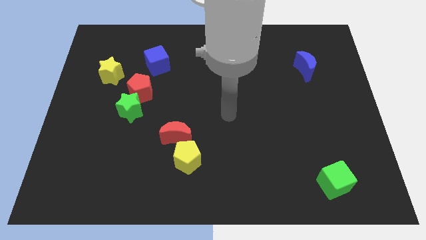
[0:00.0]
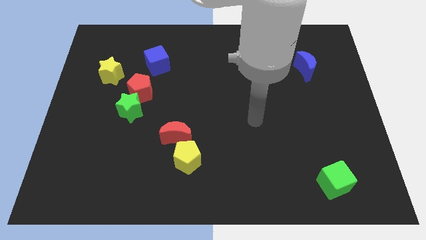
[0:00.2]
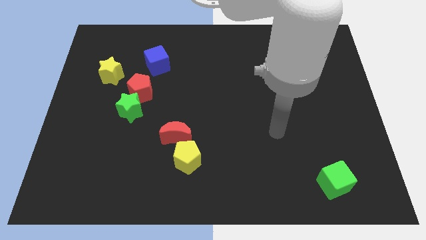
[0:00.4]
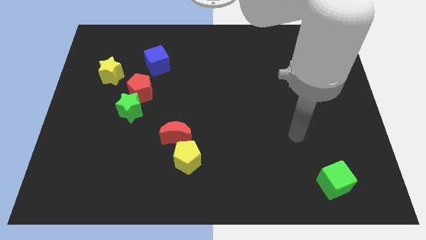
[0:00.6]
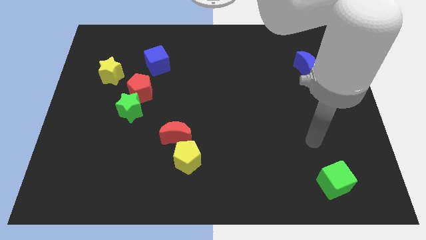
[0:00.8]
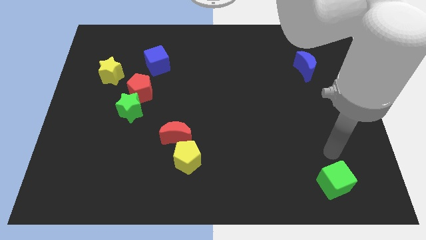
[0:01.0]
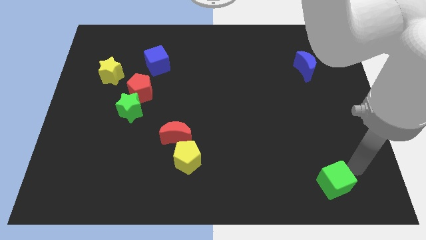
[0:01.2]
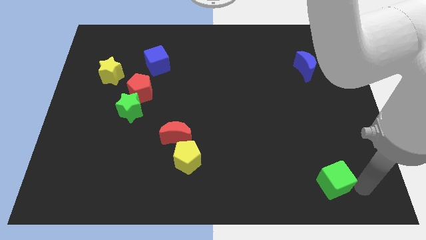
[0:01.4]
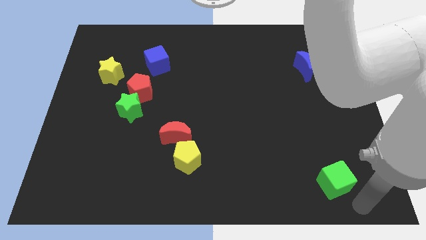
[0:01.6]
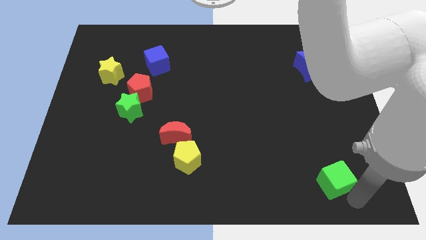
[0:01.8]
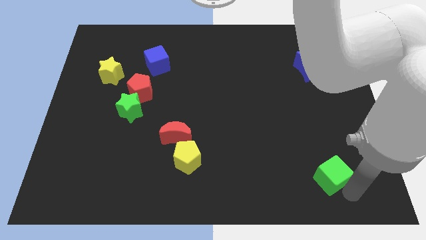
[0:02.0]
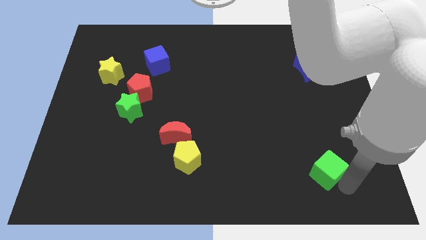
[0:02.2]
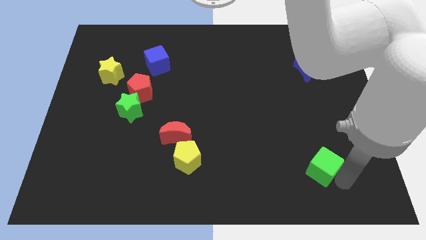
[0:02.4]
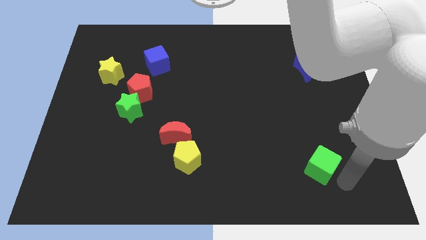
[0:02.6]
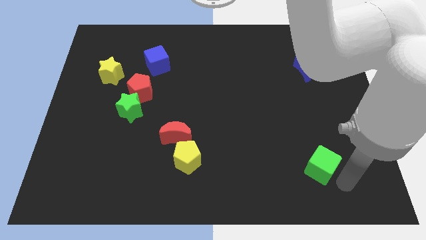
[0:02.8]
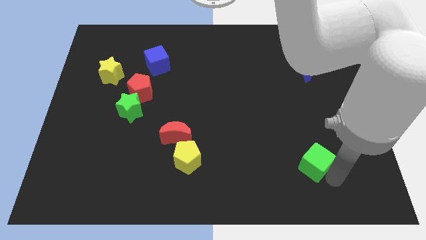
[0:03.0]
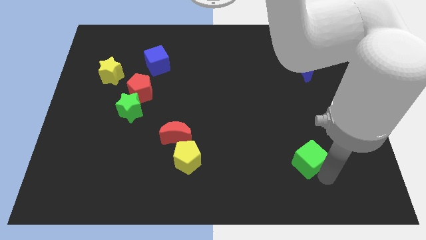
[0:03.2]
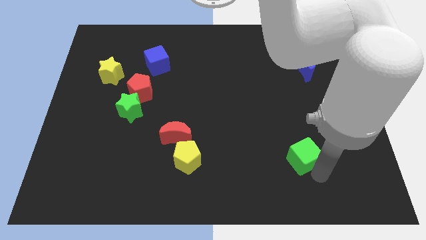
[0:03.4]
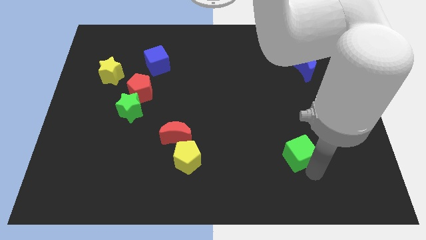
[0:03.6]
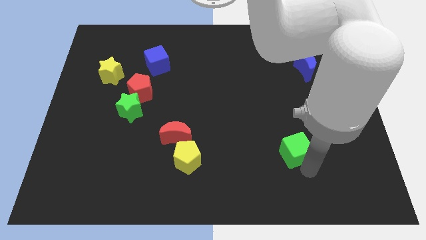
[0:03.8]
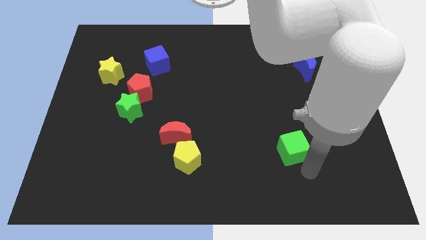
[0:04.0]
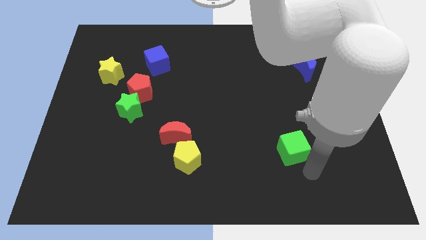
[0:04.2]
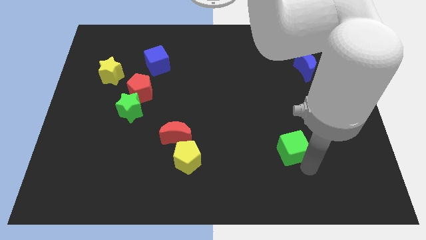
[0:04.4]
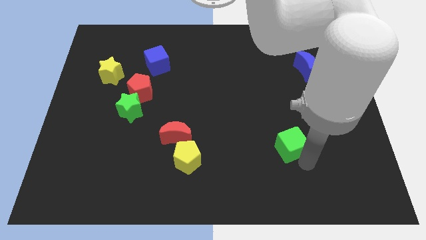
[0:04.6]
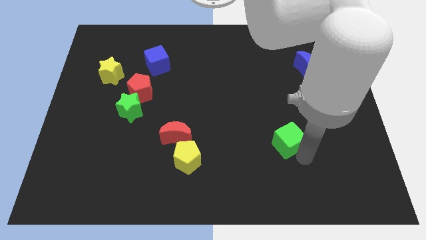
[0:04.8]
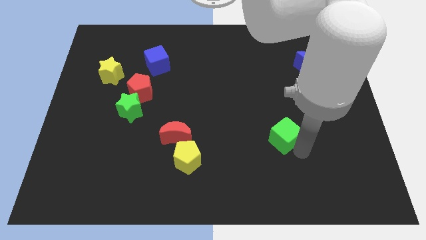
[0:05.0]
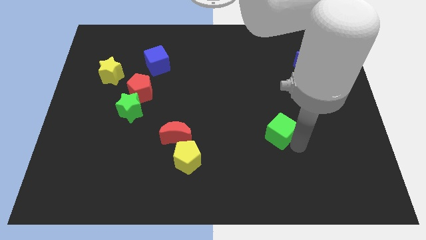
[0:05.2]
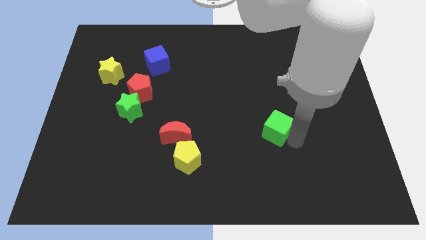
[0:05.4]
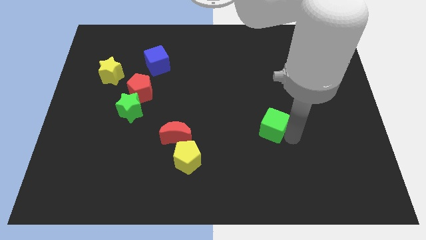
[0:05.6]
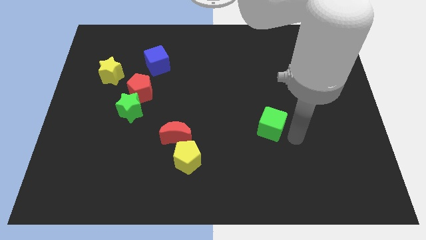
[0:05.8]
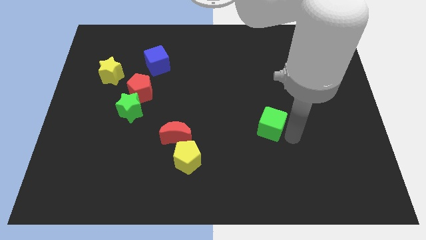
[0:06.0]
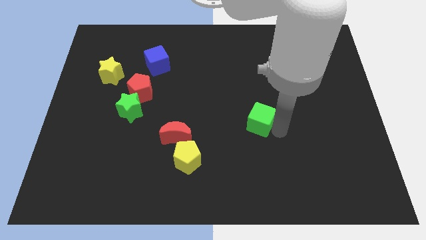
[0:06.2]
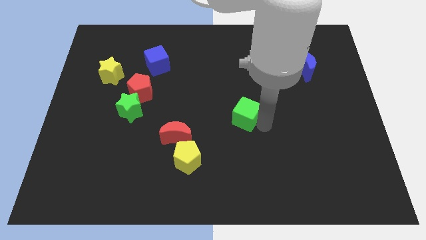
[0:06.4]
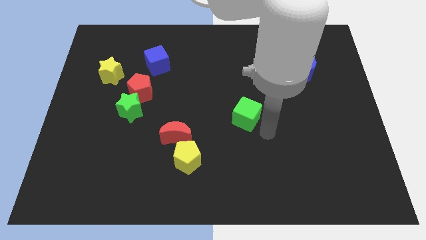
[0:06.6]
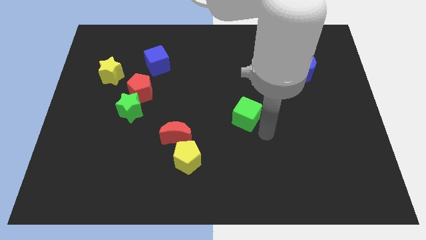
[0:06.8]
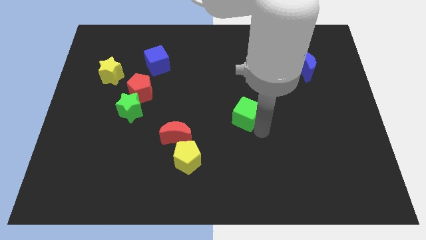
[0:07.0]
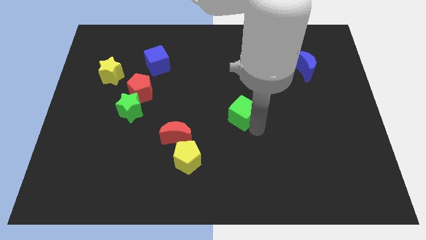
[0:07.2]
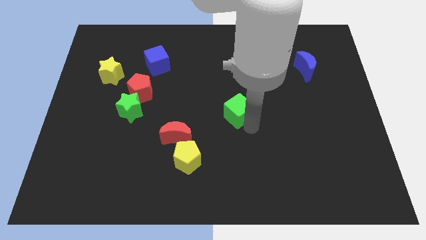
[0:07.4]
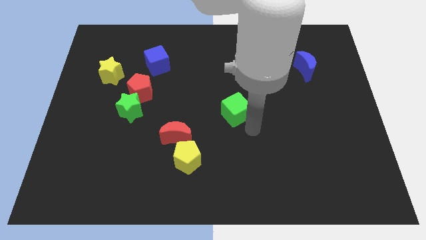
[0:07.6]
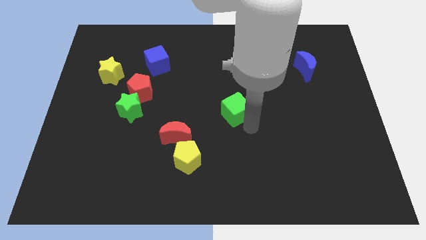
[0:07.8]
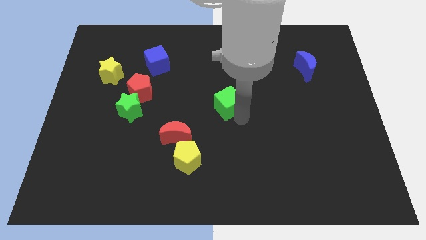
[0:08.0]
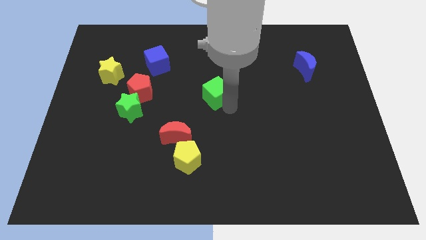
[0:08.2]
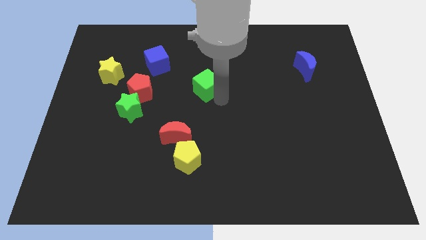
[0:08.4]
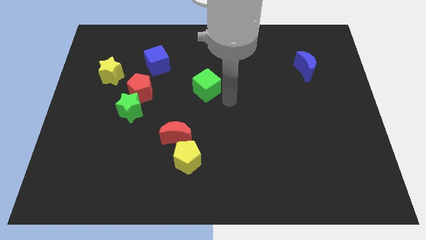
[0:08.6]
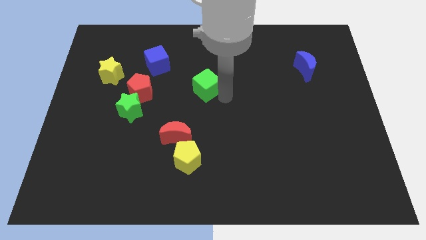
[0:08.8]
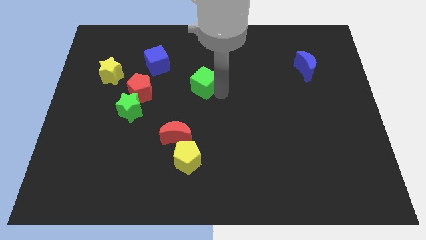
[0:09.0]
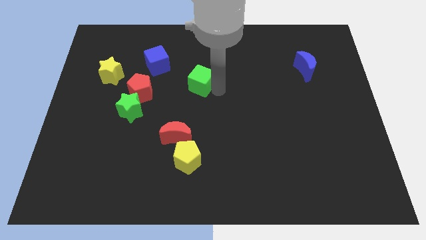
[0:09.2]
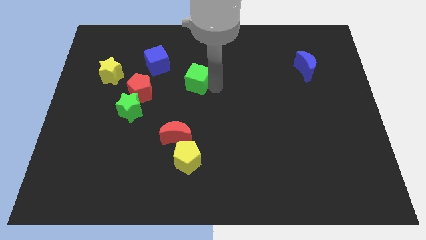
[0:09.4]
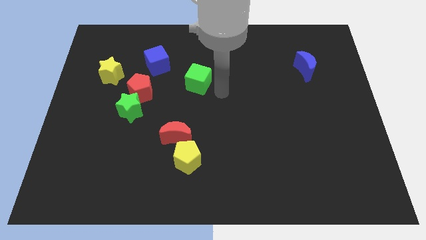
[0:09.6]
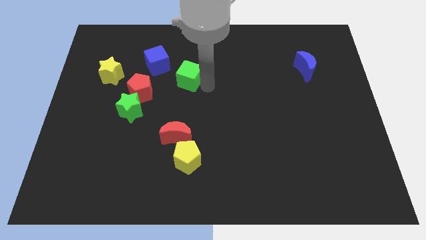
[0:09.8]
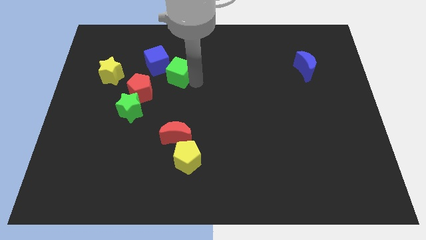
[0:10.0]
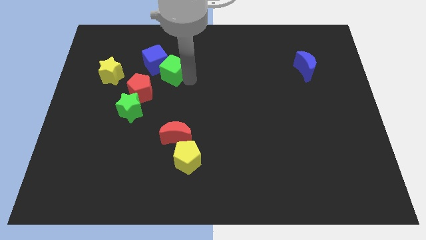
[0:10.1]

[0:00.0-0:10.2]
slide the green cube to the blue cube

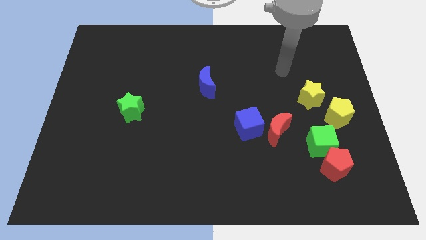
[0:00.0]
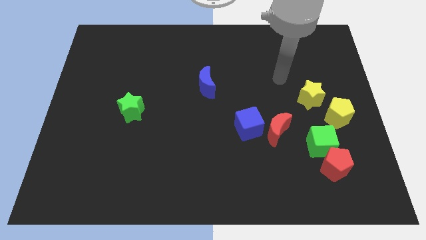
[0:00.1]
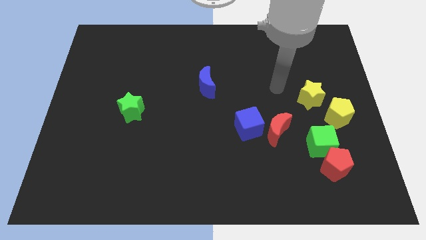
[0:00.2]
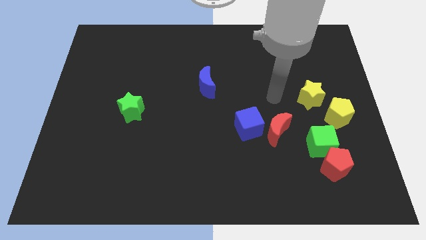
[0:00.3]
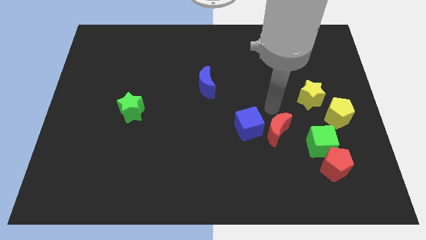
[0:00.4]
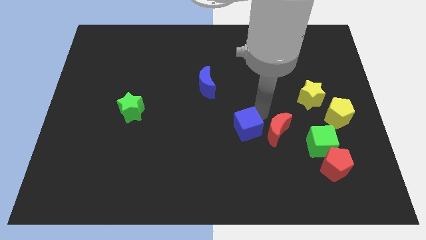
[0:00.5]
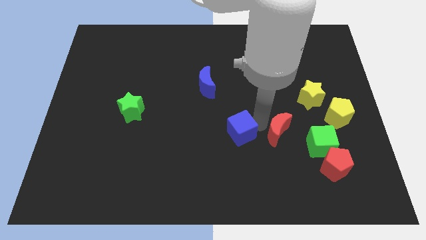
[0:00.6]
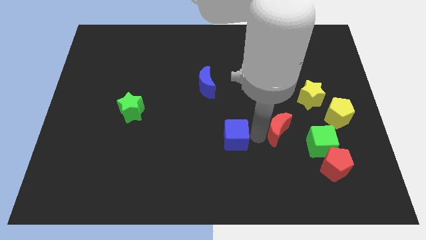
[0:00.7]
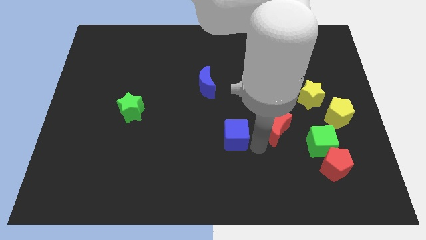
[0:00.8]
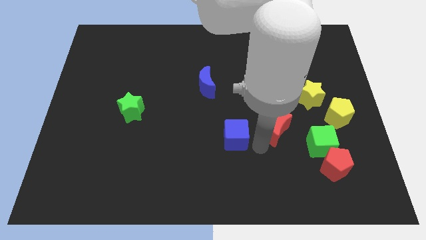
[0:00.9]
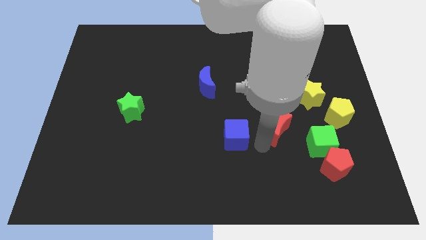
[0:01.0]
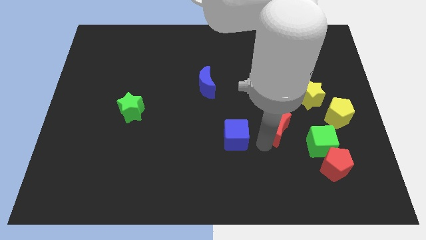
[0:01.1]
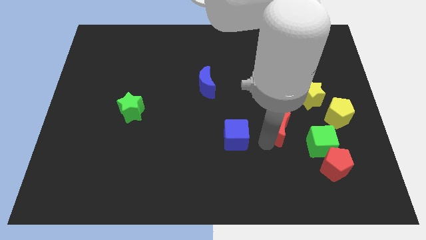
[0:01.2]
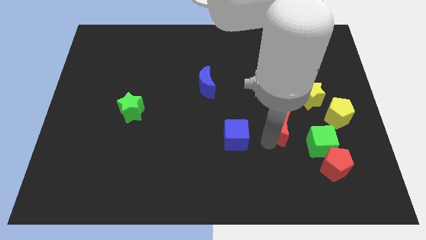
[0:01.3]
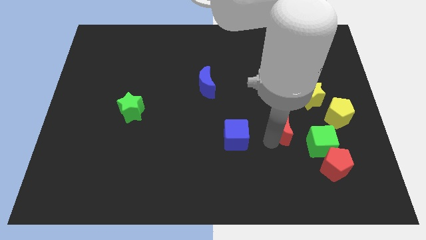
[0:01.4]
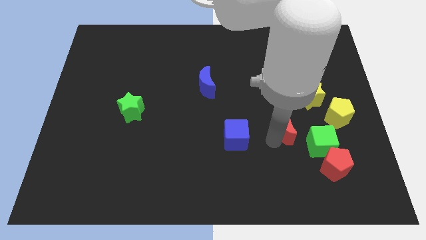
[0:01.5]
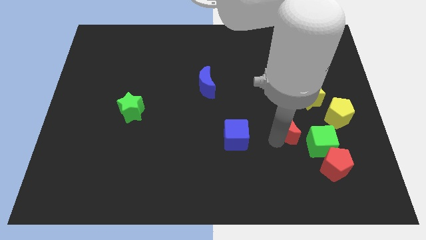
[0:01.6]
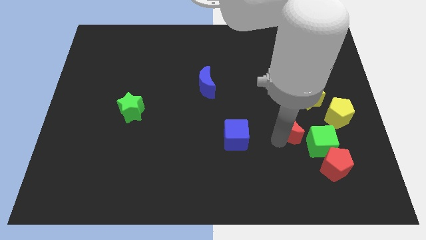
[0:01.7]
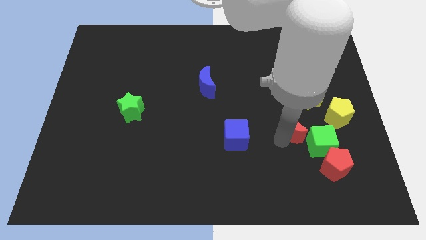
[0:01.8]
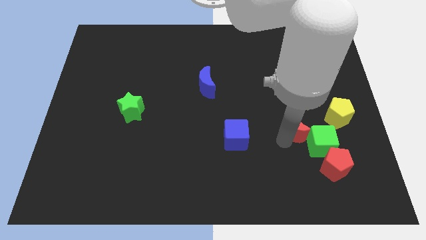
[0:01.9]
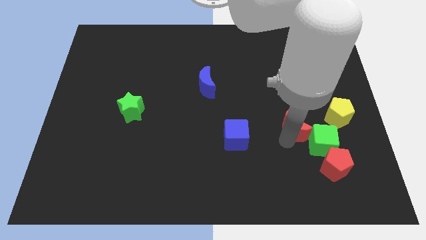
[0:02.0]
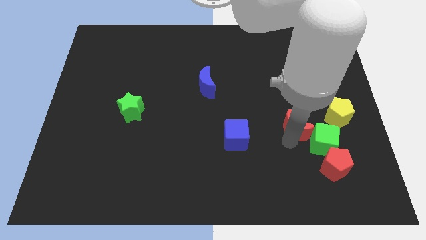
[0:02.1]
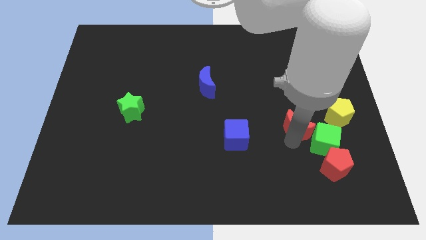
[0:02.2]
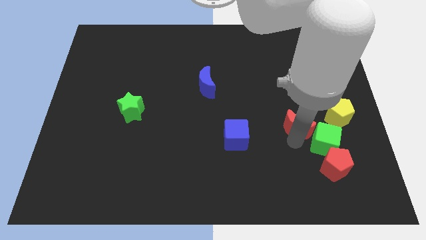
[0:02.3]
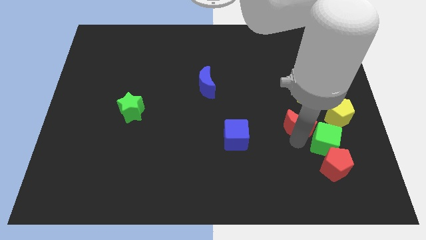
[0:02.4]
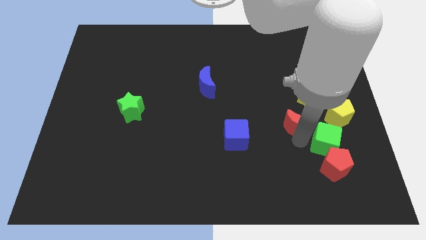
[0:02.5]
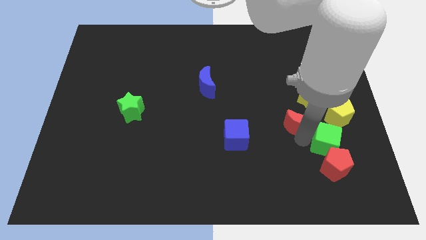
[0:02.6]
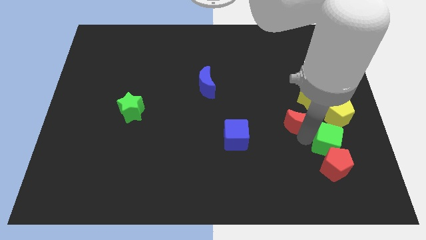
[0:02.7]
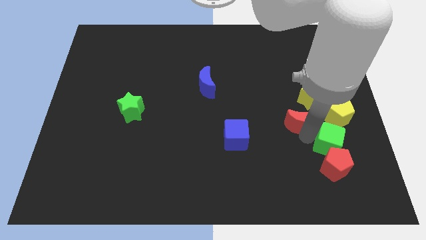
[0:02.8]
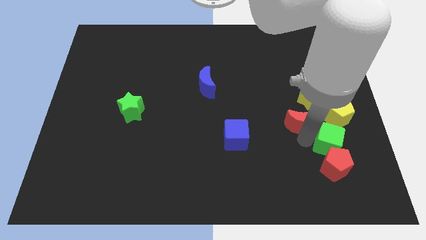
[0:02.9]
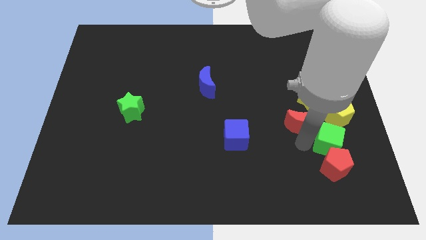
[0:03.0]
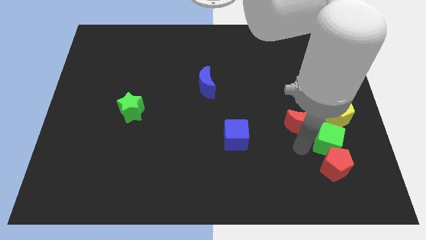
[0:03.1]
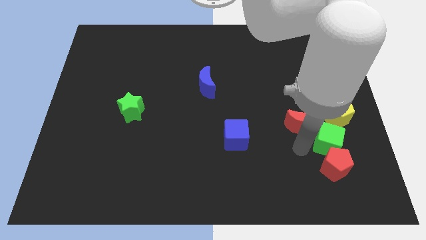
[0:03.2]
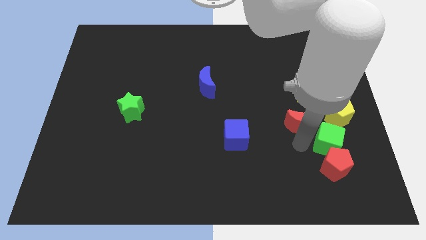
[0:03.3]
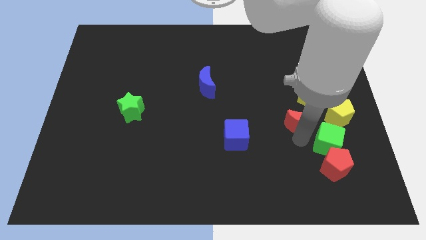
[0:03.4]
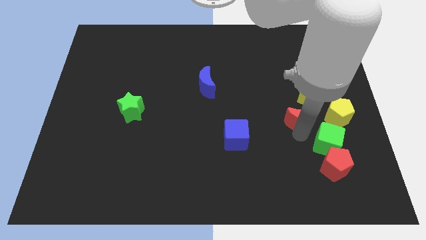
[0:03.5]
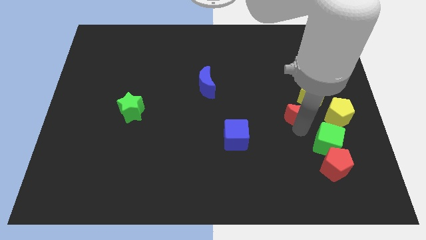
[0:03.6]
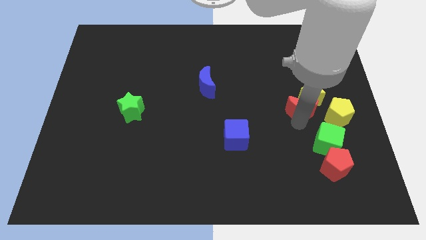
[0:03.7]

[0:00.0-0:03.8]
move the red moon to the yellow star
